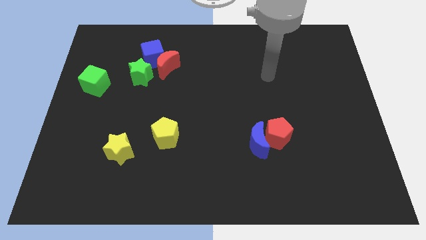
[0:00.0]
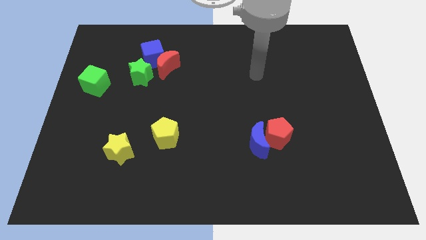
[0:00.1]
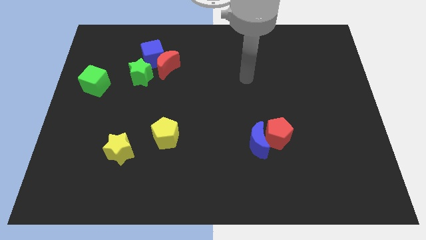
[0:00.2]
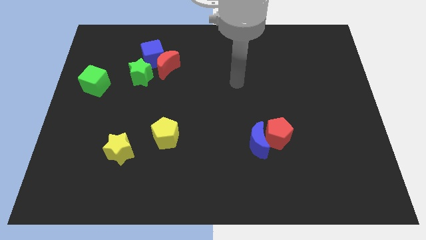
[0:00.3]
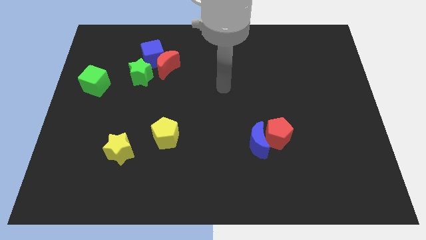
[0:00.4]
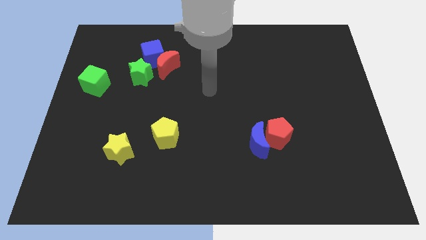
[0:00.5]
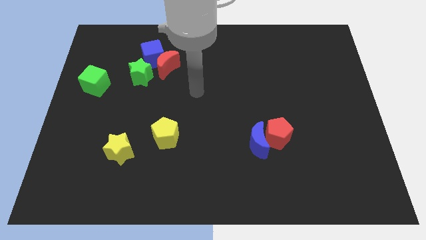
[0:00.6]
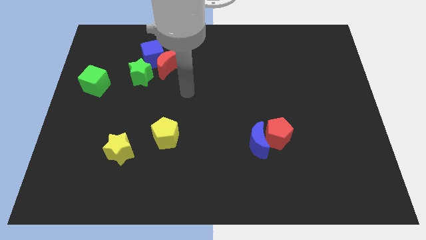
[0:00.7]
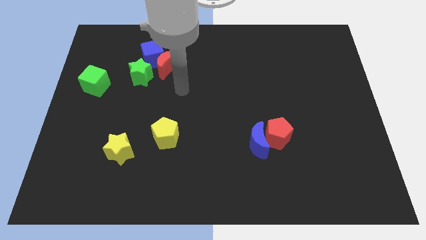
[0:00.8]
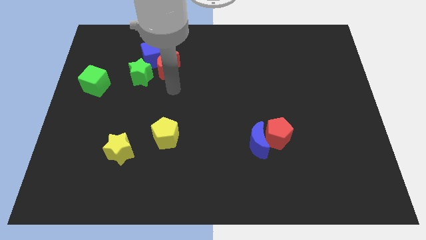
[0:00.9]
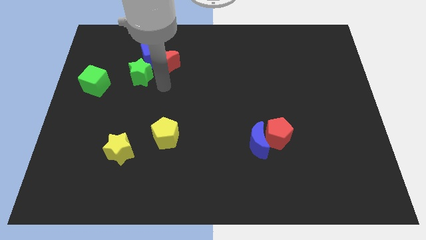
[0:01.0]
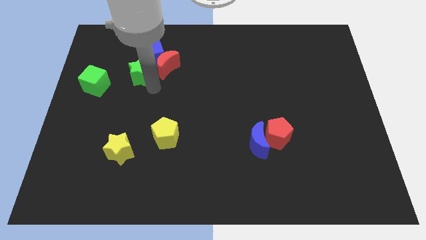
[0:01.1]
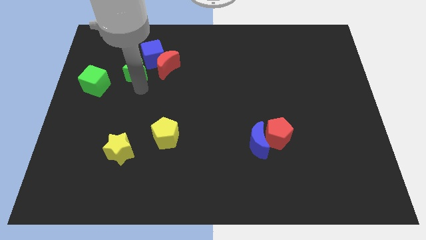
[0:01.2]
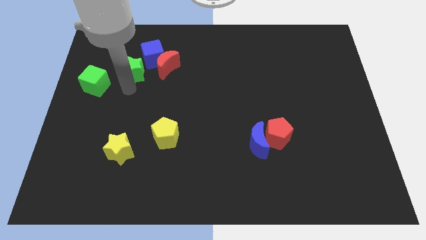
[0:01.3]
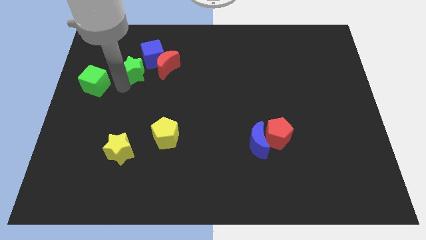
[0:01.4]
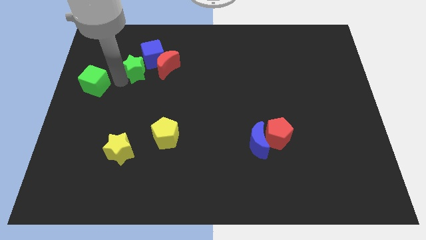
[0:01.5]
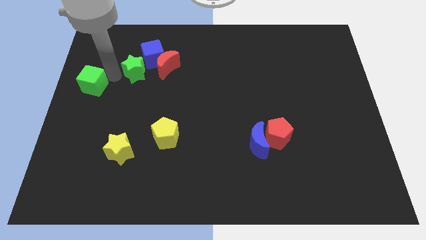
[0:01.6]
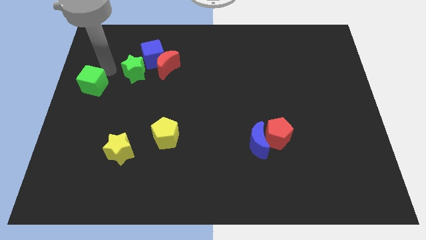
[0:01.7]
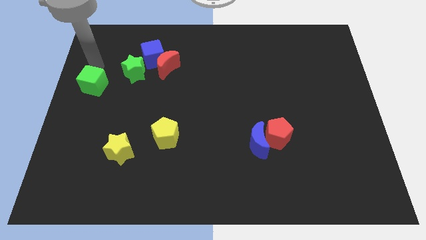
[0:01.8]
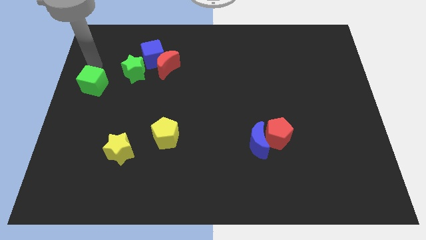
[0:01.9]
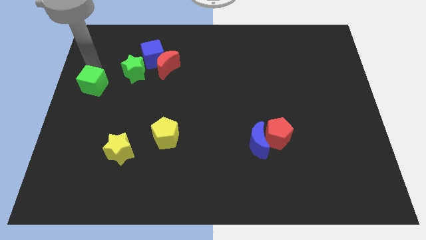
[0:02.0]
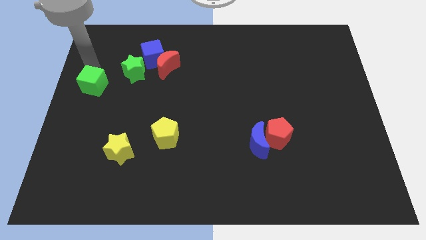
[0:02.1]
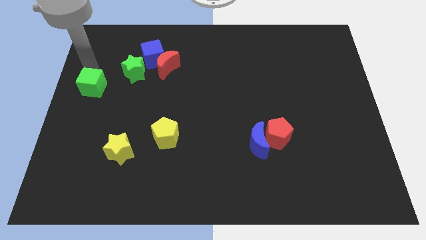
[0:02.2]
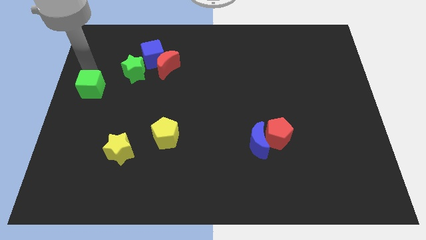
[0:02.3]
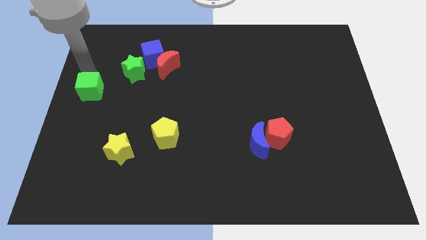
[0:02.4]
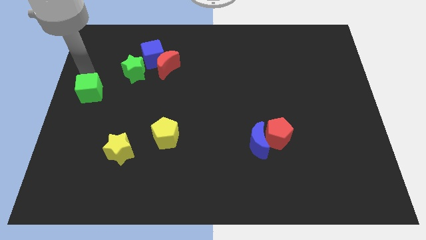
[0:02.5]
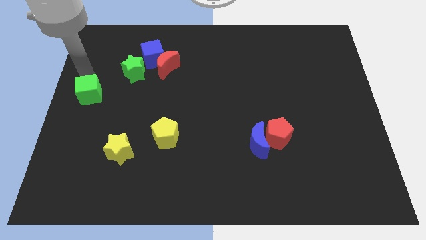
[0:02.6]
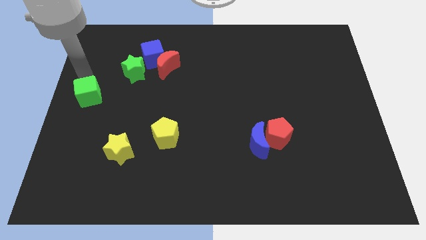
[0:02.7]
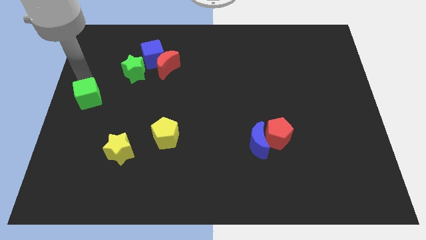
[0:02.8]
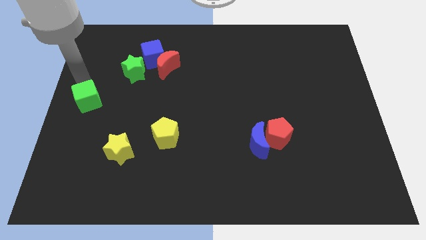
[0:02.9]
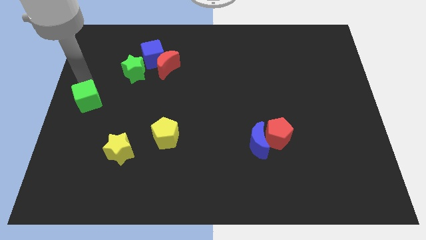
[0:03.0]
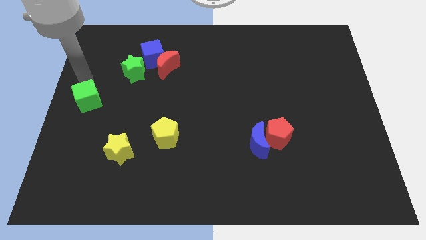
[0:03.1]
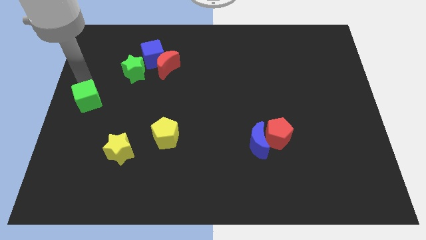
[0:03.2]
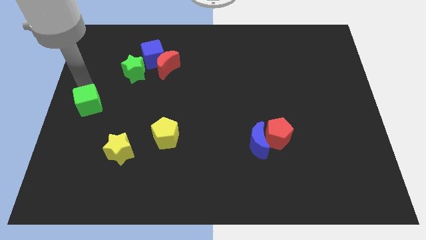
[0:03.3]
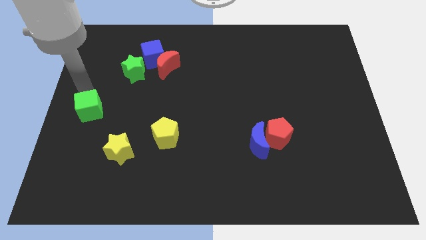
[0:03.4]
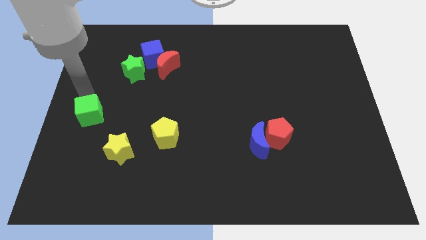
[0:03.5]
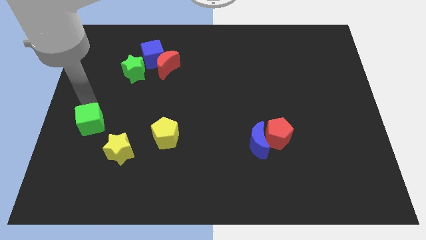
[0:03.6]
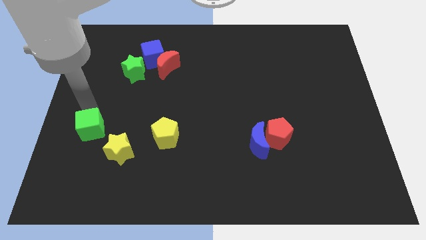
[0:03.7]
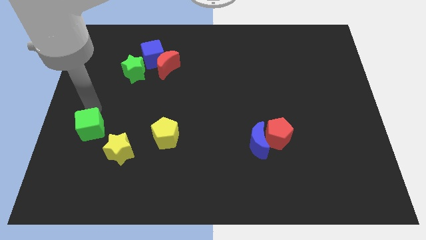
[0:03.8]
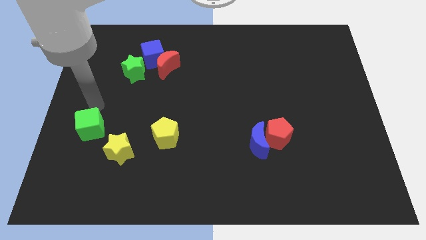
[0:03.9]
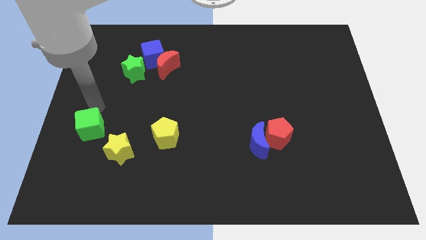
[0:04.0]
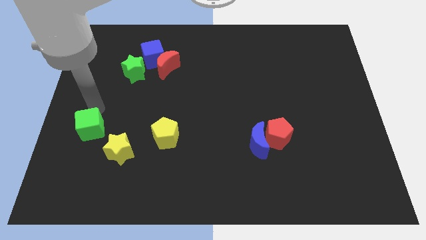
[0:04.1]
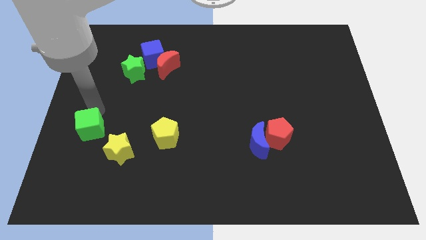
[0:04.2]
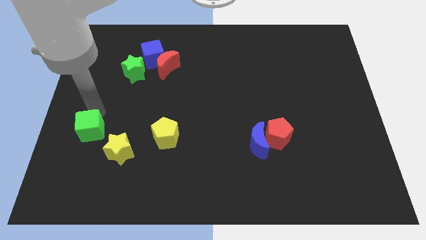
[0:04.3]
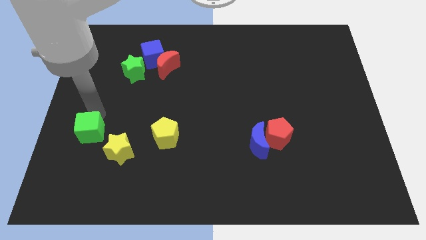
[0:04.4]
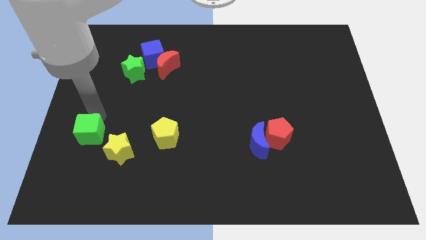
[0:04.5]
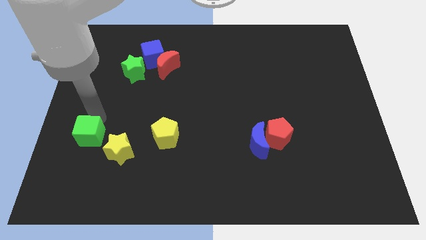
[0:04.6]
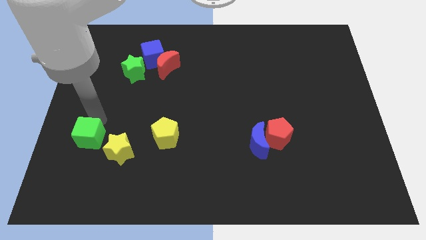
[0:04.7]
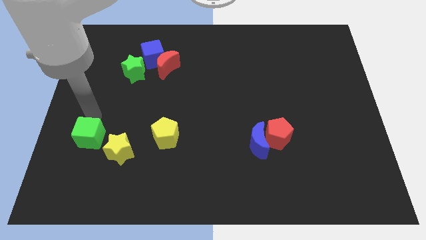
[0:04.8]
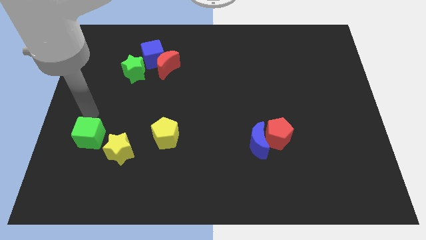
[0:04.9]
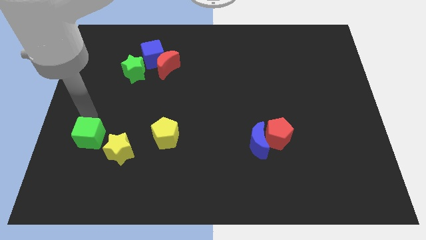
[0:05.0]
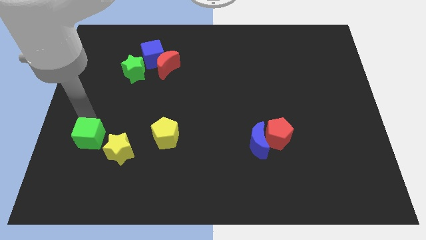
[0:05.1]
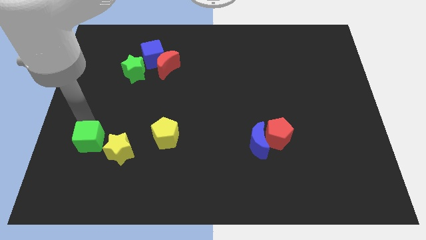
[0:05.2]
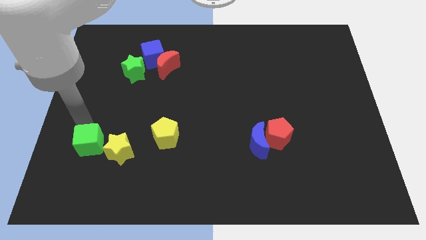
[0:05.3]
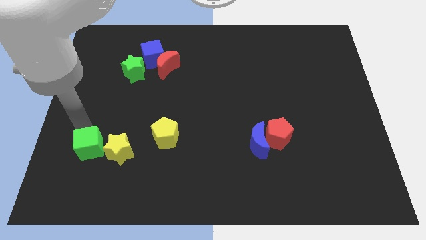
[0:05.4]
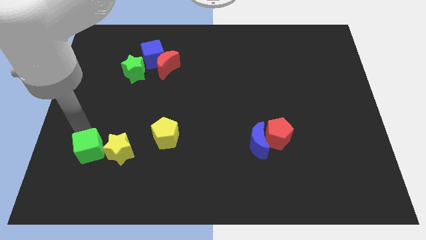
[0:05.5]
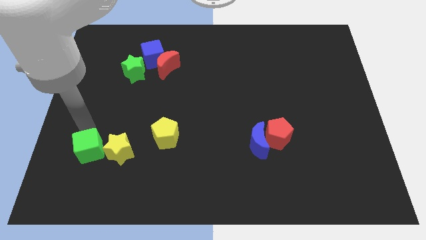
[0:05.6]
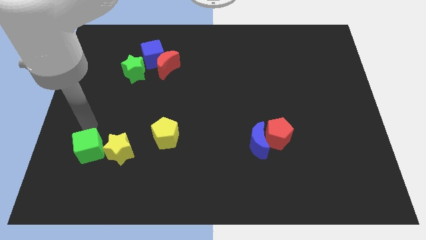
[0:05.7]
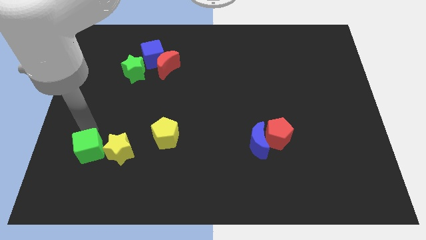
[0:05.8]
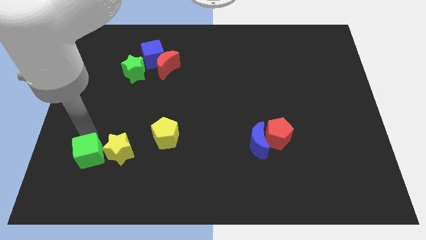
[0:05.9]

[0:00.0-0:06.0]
move the green cube to the bottom left of the yellow star

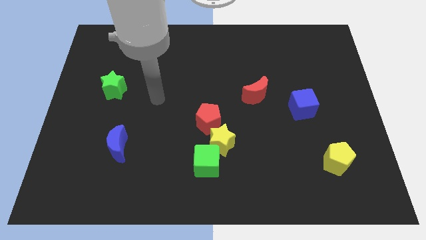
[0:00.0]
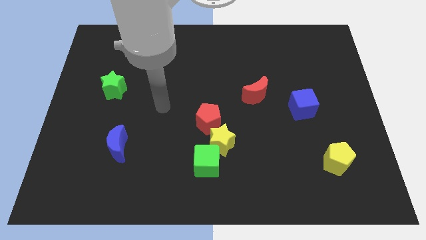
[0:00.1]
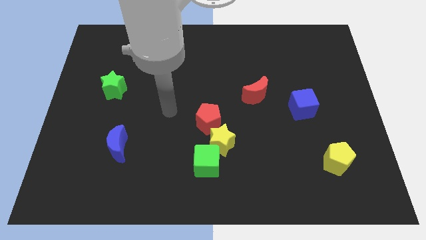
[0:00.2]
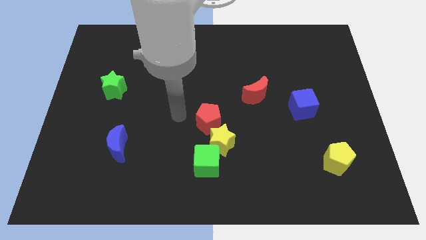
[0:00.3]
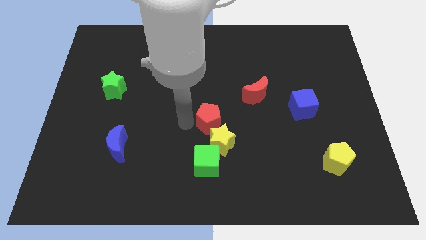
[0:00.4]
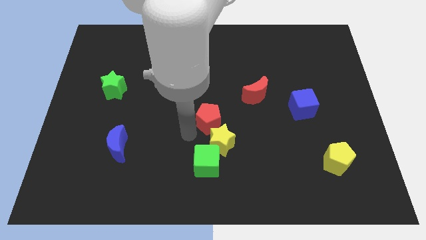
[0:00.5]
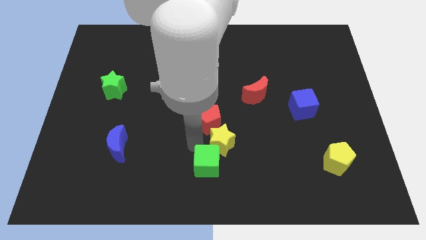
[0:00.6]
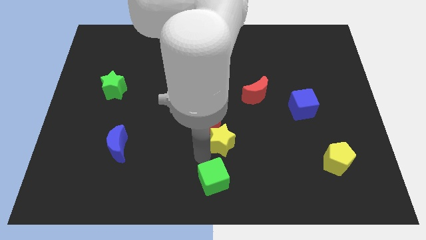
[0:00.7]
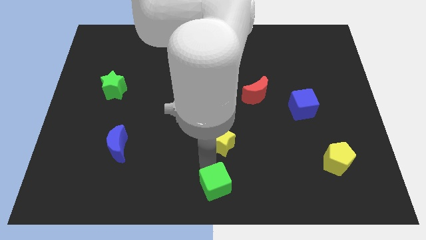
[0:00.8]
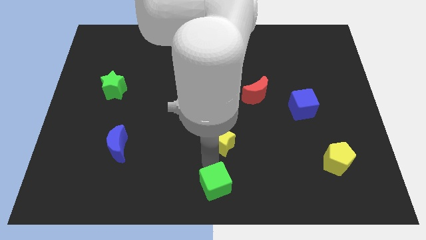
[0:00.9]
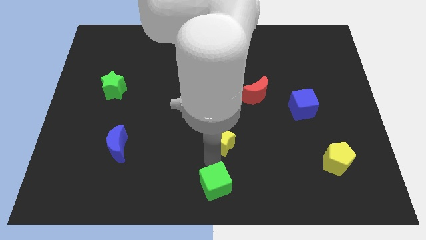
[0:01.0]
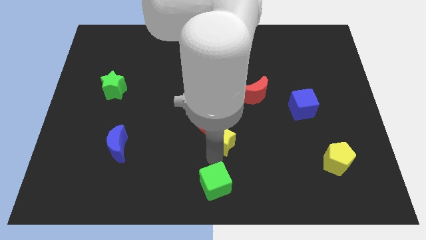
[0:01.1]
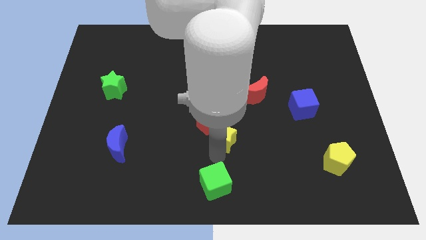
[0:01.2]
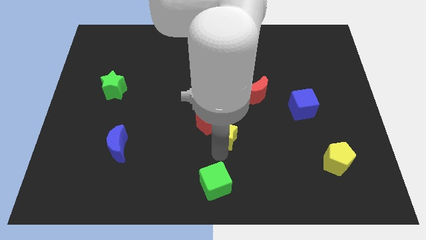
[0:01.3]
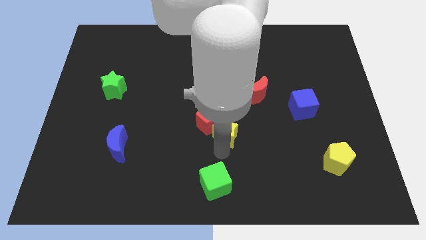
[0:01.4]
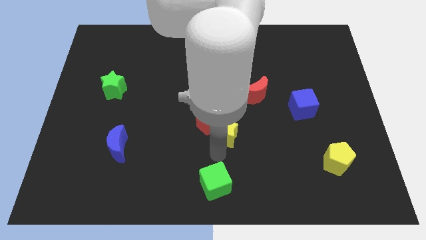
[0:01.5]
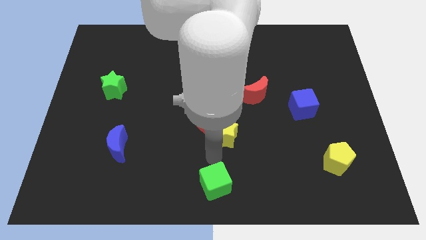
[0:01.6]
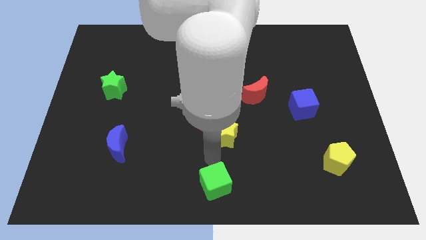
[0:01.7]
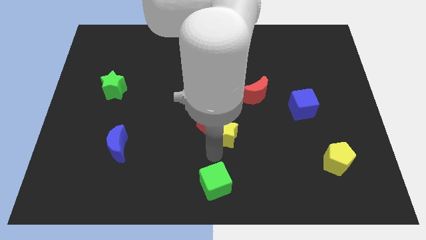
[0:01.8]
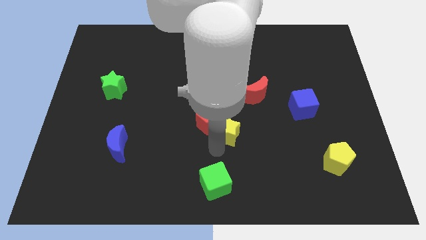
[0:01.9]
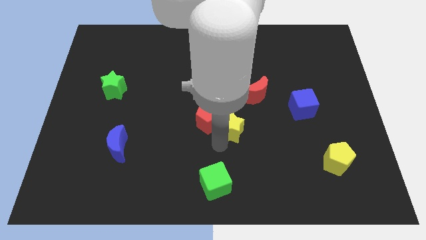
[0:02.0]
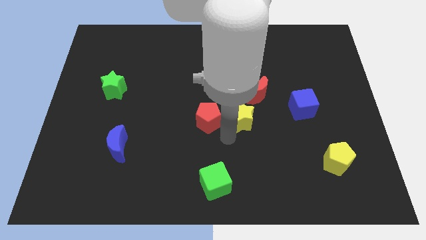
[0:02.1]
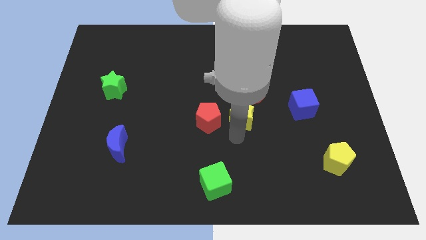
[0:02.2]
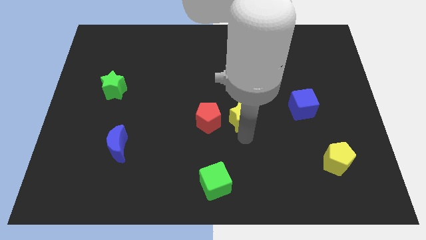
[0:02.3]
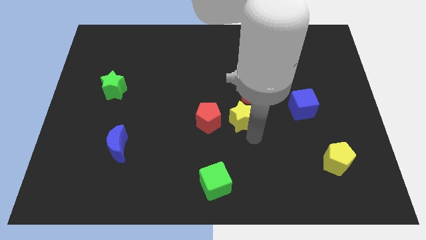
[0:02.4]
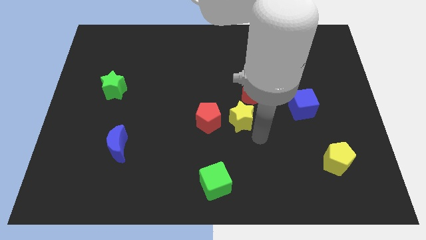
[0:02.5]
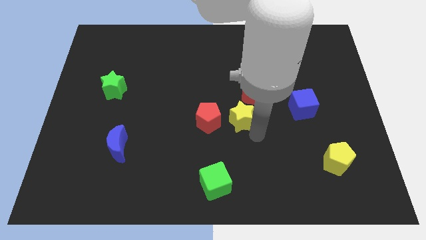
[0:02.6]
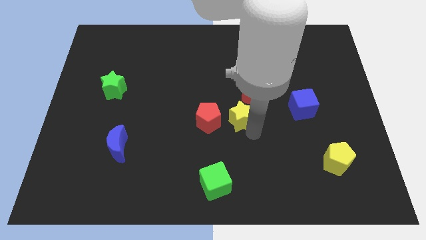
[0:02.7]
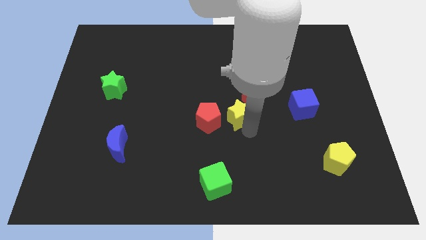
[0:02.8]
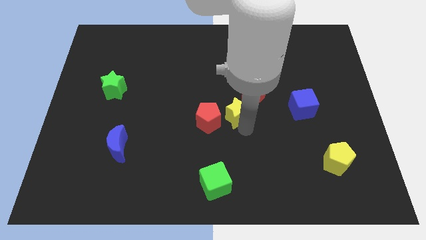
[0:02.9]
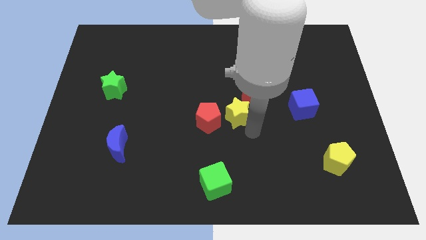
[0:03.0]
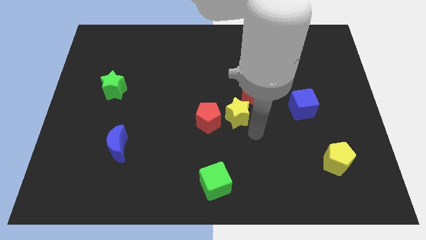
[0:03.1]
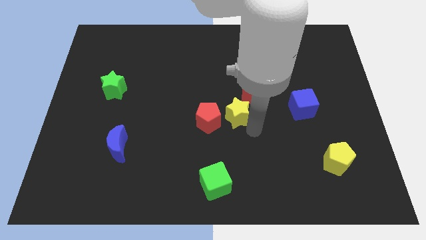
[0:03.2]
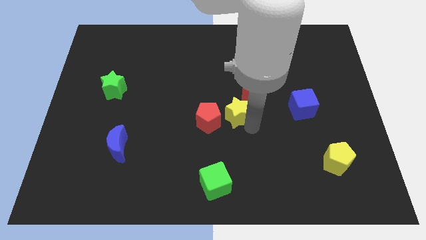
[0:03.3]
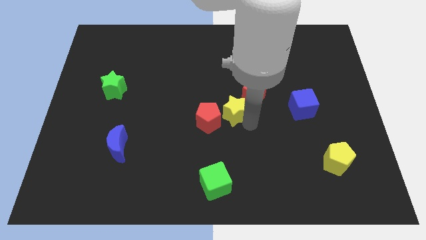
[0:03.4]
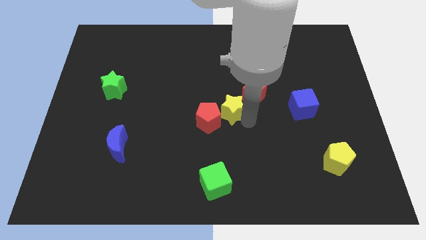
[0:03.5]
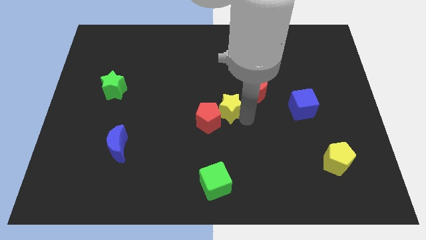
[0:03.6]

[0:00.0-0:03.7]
push the yellow star just left of the red moon
